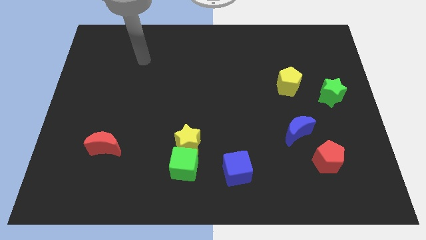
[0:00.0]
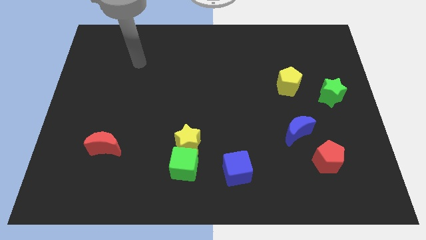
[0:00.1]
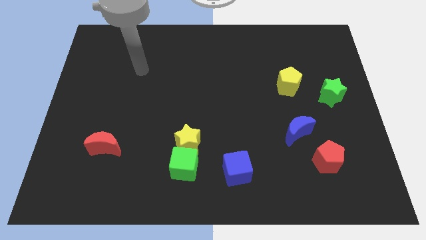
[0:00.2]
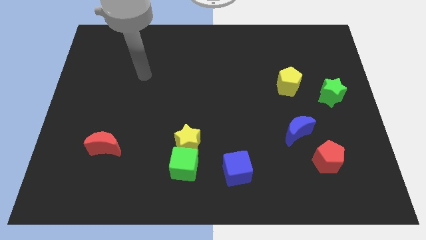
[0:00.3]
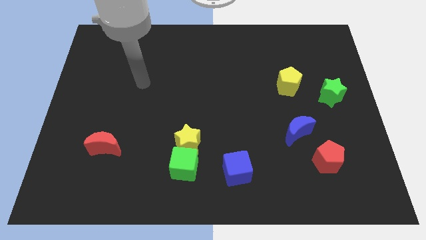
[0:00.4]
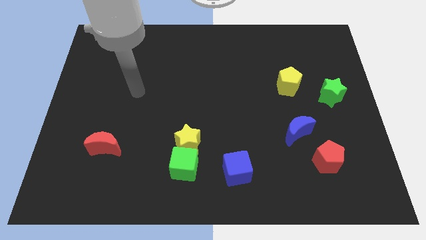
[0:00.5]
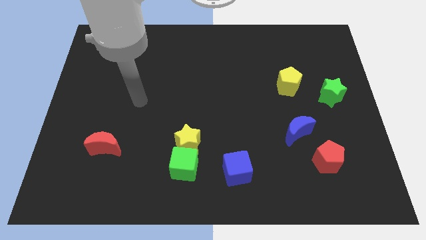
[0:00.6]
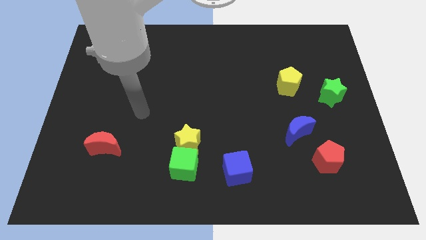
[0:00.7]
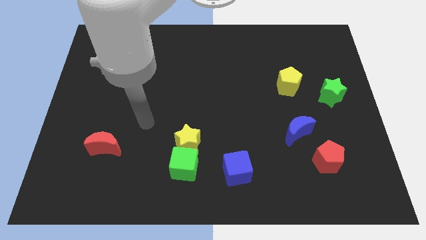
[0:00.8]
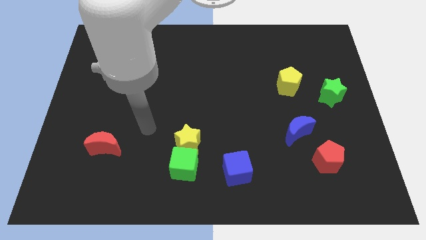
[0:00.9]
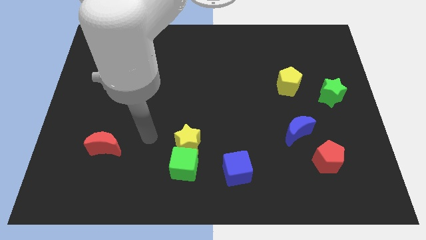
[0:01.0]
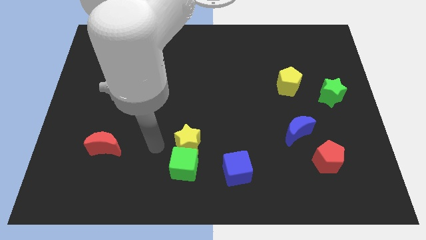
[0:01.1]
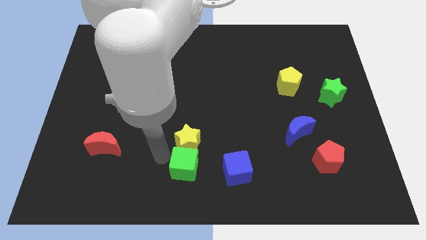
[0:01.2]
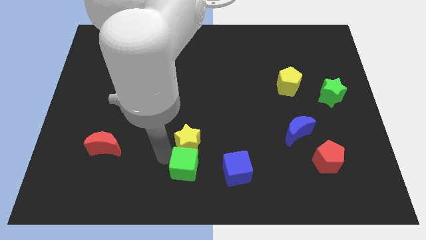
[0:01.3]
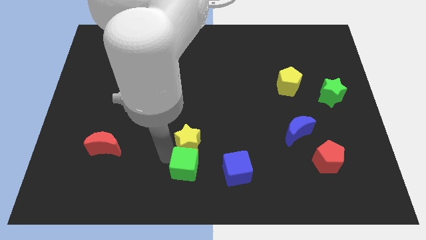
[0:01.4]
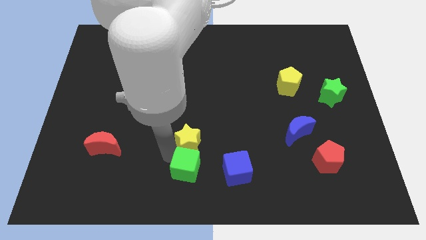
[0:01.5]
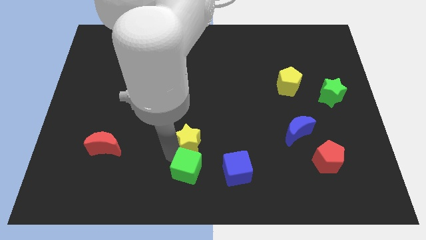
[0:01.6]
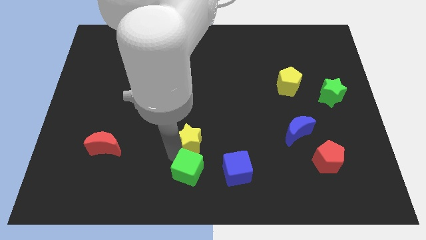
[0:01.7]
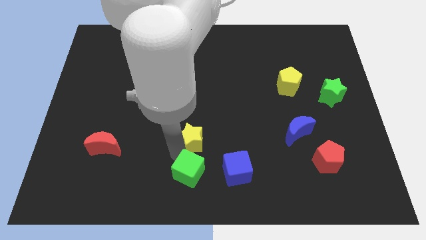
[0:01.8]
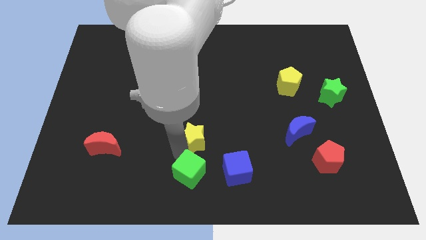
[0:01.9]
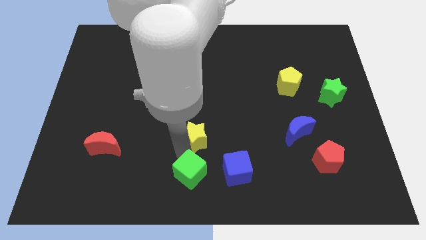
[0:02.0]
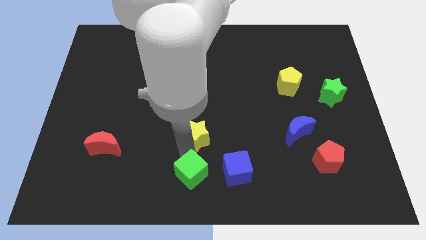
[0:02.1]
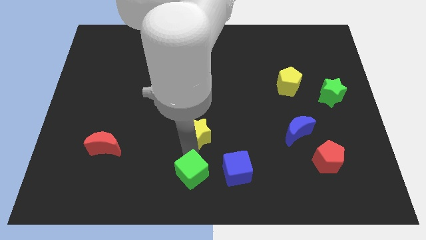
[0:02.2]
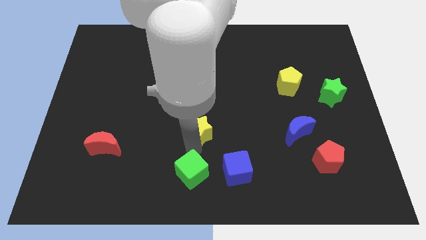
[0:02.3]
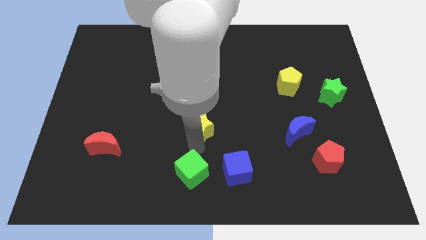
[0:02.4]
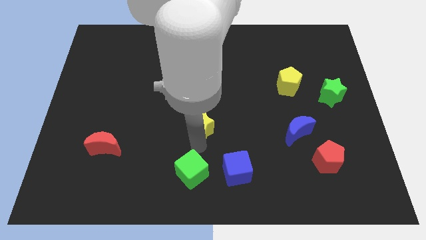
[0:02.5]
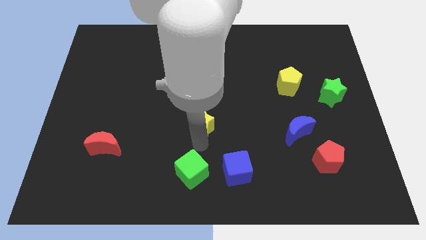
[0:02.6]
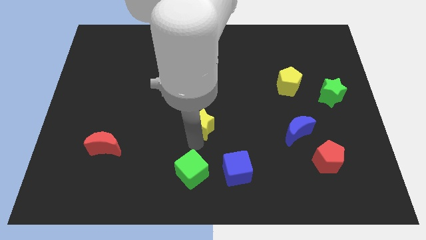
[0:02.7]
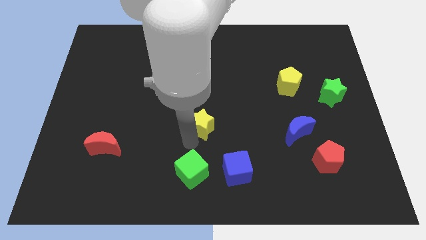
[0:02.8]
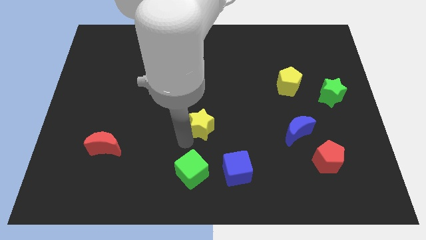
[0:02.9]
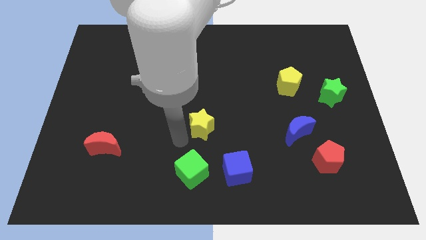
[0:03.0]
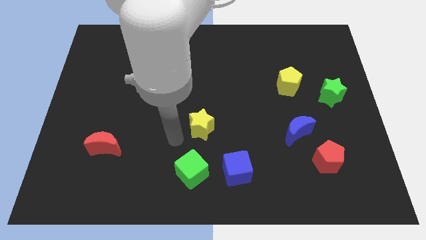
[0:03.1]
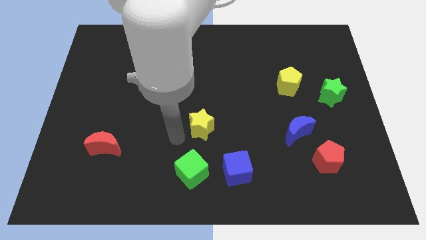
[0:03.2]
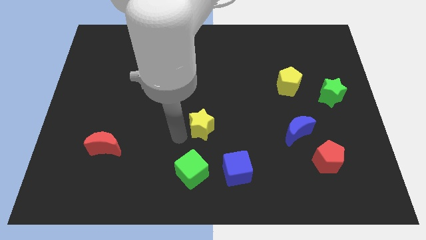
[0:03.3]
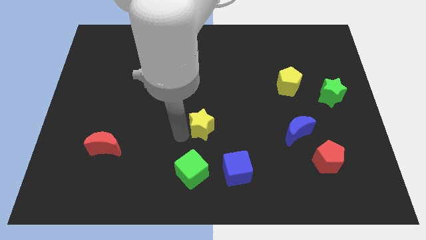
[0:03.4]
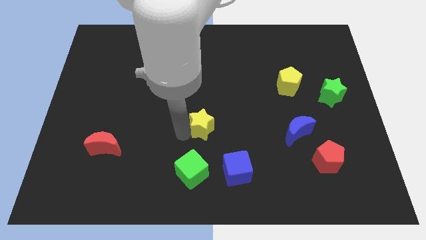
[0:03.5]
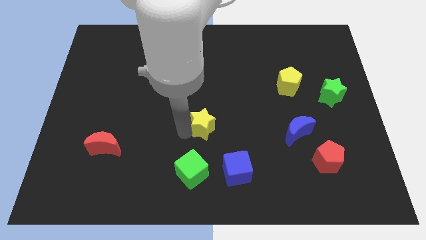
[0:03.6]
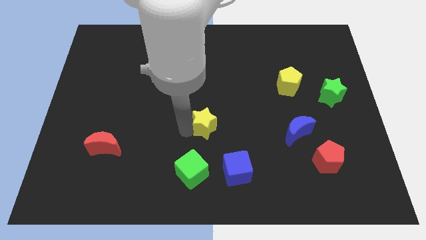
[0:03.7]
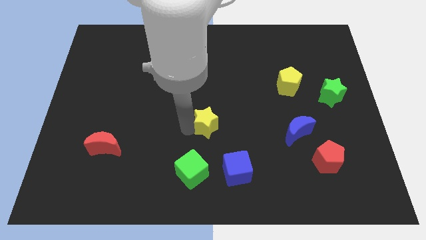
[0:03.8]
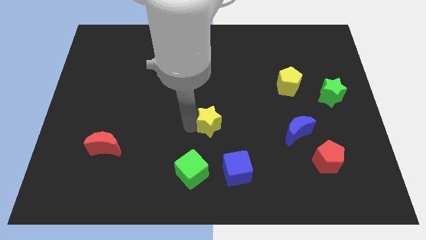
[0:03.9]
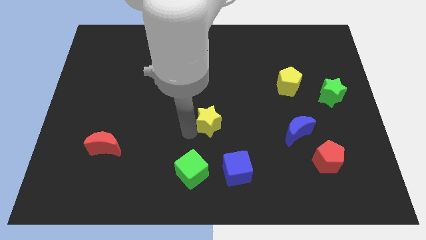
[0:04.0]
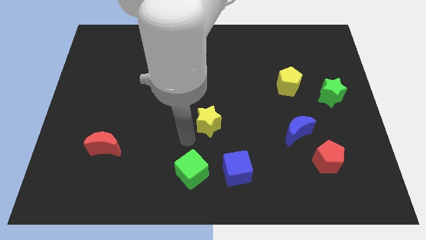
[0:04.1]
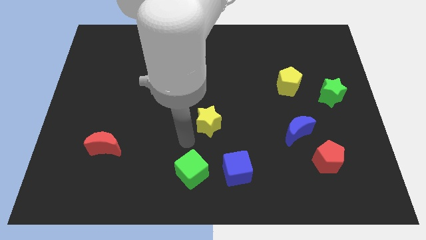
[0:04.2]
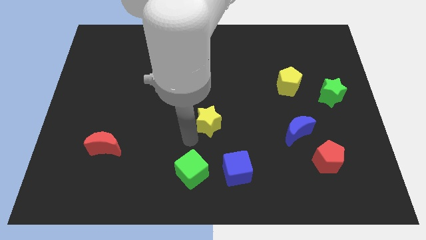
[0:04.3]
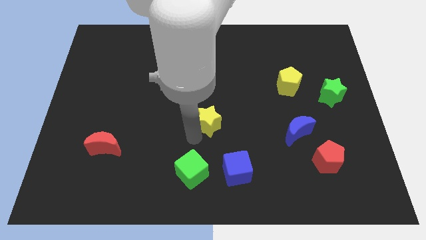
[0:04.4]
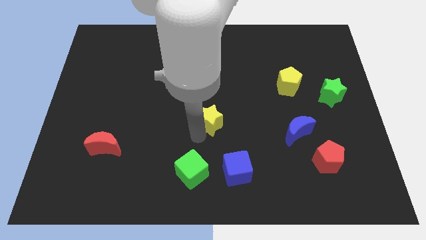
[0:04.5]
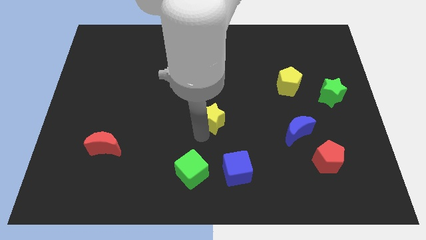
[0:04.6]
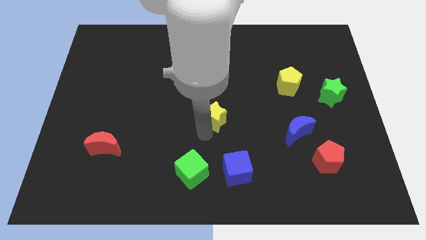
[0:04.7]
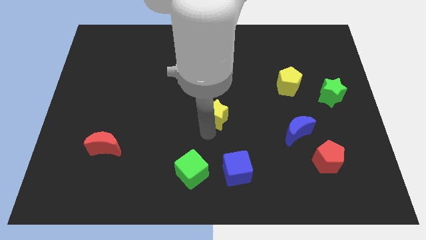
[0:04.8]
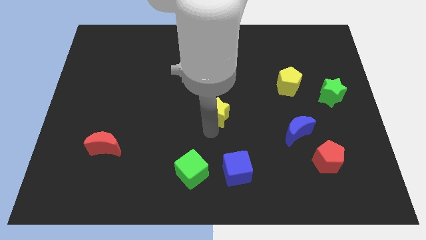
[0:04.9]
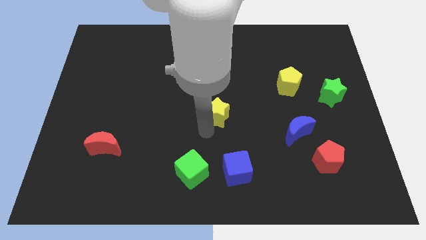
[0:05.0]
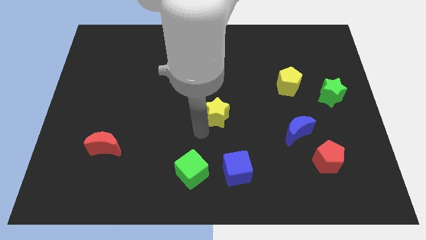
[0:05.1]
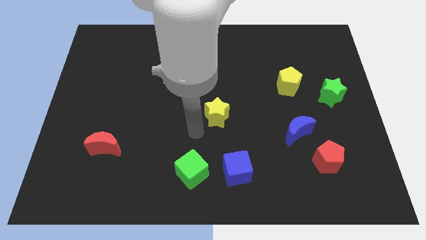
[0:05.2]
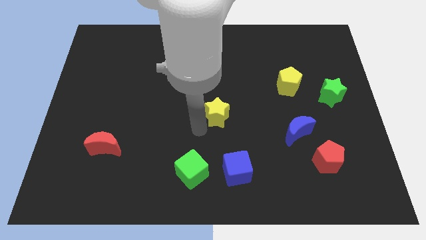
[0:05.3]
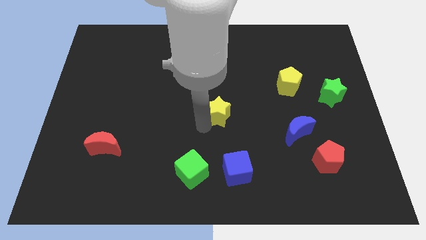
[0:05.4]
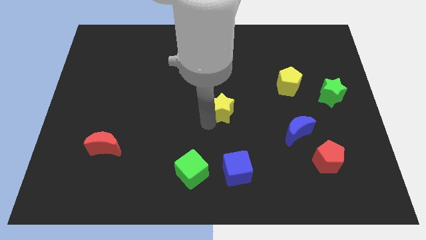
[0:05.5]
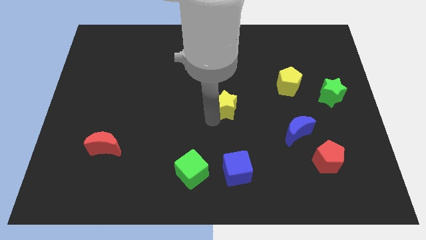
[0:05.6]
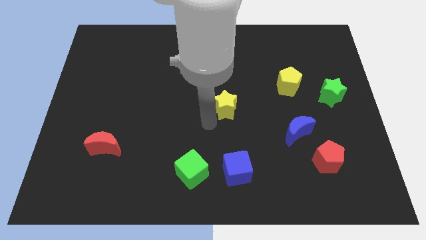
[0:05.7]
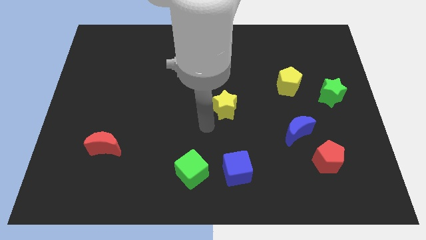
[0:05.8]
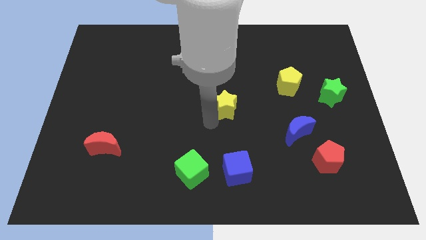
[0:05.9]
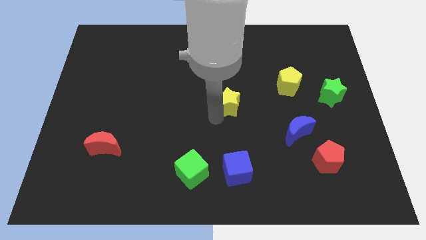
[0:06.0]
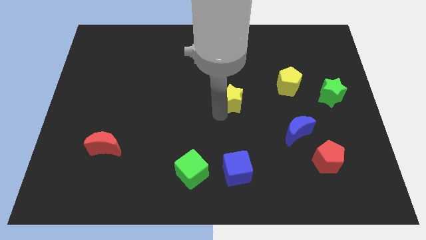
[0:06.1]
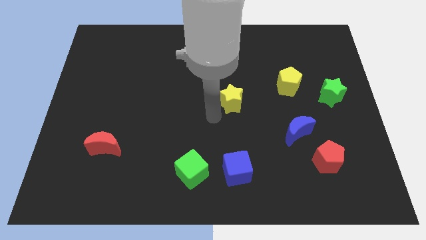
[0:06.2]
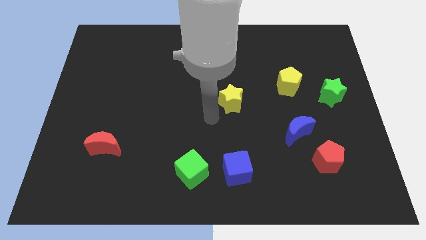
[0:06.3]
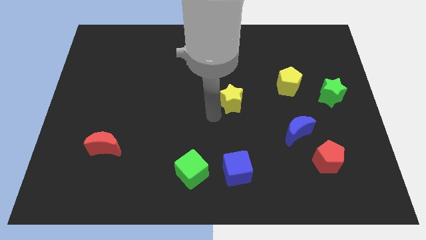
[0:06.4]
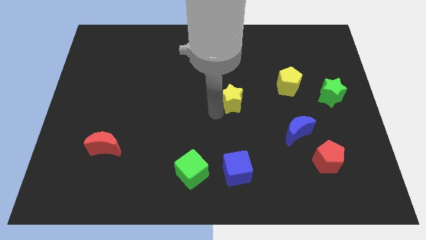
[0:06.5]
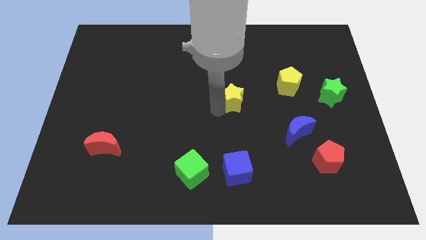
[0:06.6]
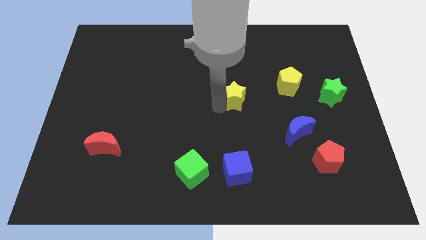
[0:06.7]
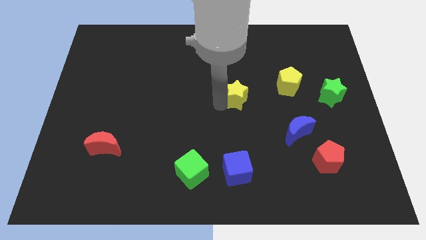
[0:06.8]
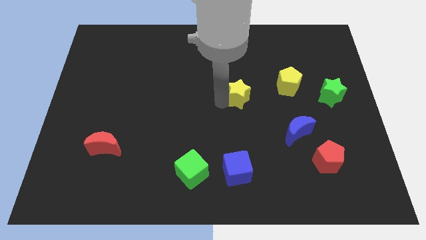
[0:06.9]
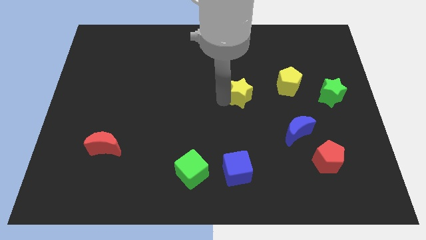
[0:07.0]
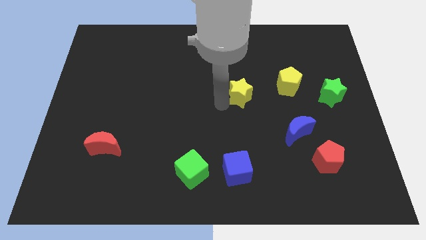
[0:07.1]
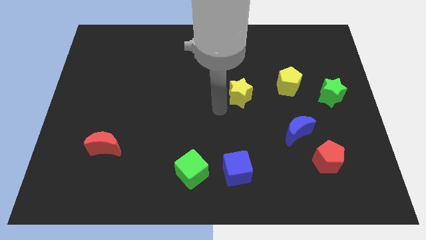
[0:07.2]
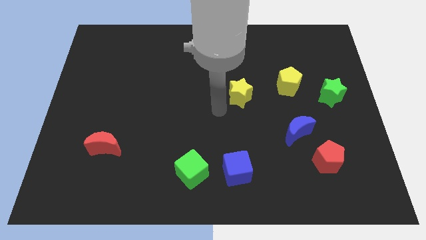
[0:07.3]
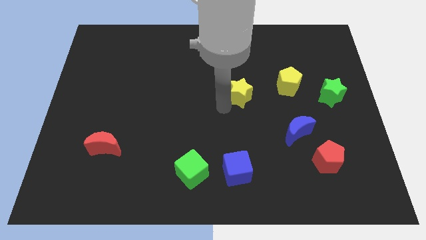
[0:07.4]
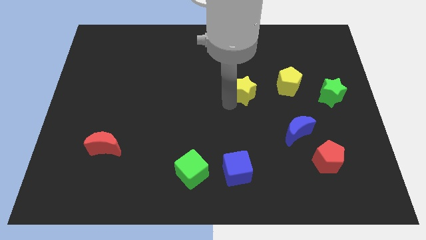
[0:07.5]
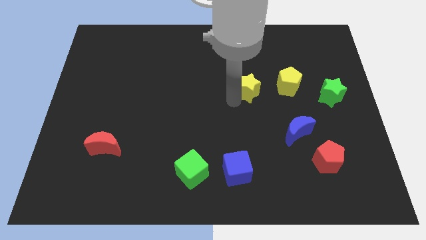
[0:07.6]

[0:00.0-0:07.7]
move the yellow star up and to the right diagonally

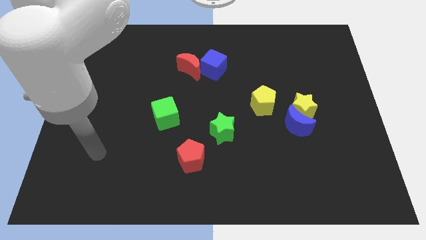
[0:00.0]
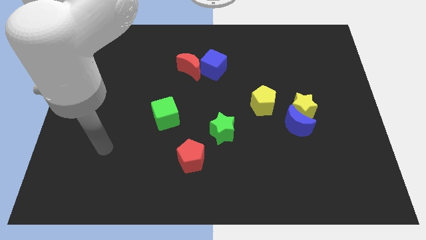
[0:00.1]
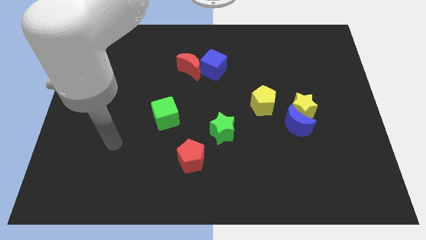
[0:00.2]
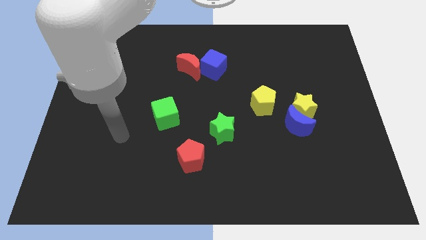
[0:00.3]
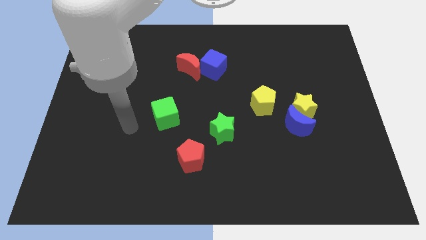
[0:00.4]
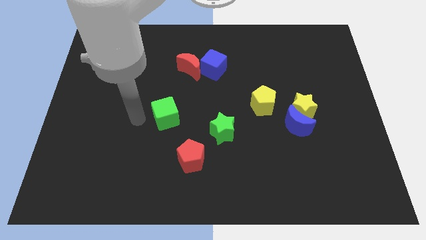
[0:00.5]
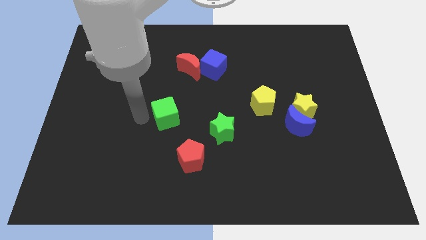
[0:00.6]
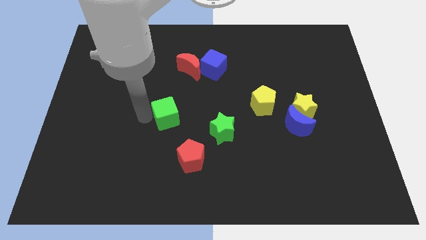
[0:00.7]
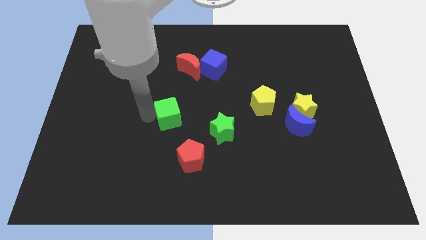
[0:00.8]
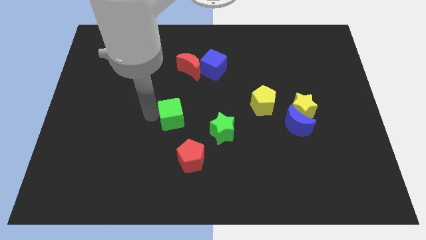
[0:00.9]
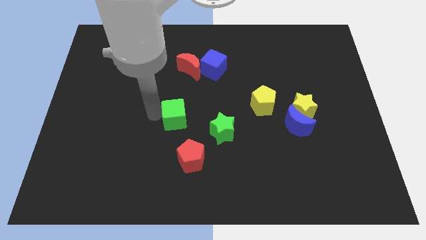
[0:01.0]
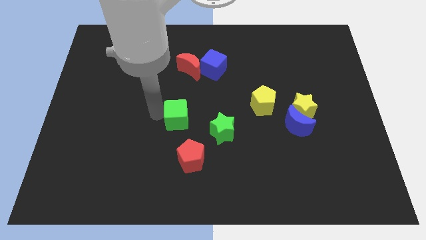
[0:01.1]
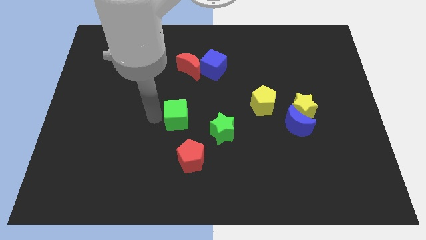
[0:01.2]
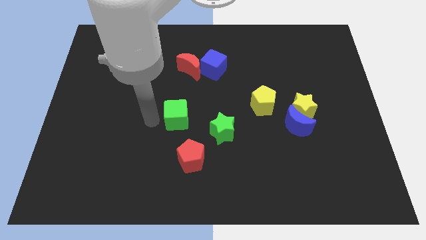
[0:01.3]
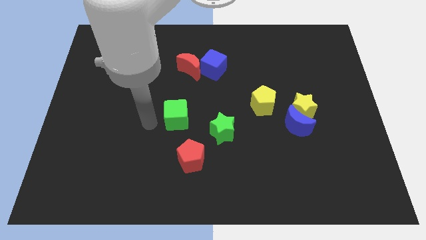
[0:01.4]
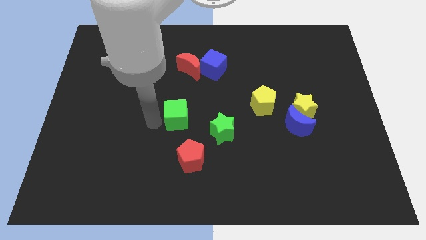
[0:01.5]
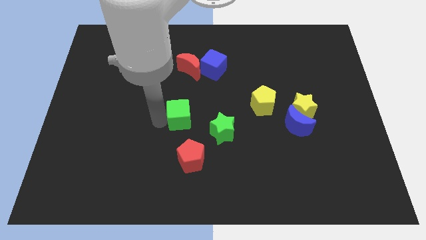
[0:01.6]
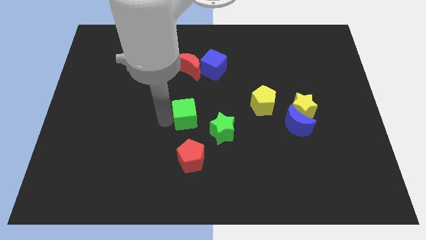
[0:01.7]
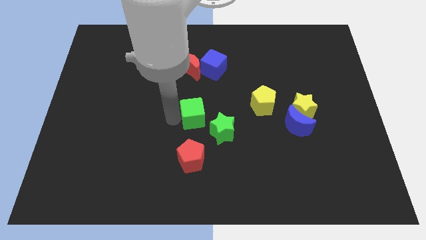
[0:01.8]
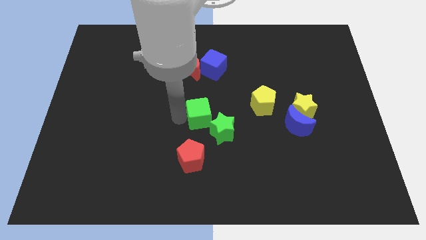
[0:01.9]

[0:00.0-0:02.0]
slide the green cube a little to the right
